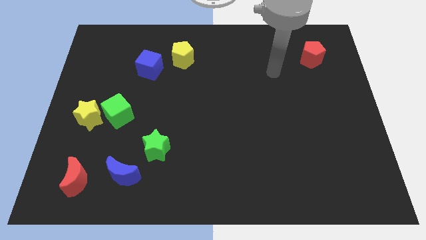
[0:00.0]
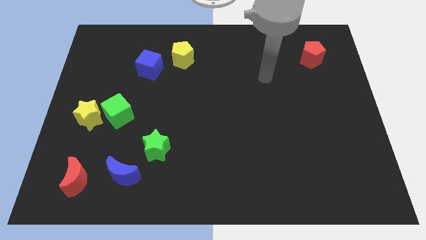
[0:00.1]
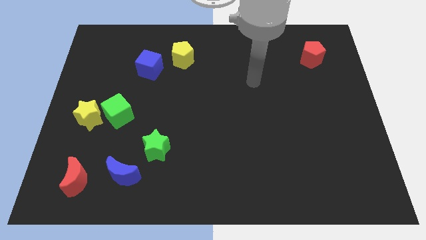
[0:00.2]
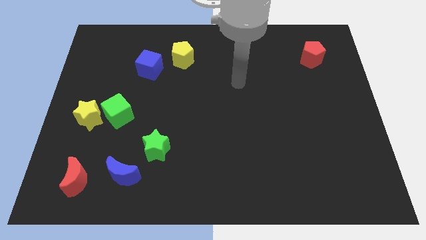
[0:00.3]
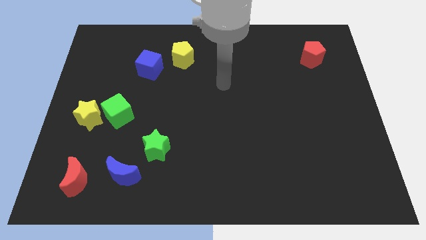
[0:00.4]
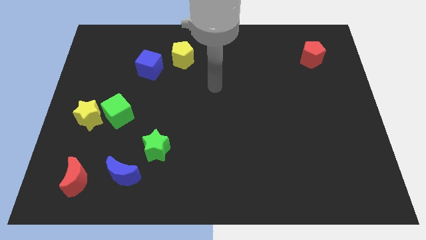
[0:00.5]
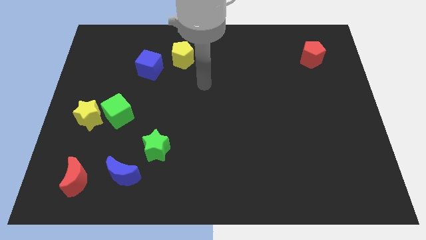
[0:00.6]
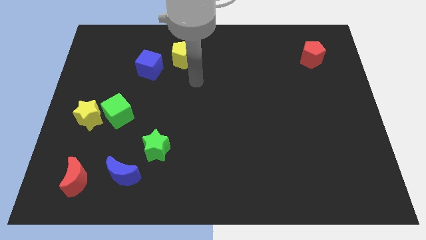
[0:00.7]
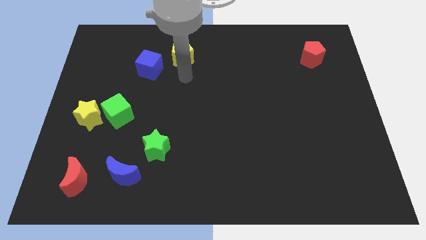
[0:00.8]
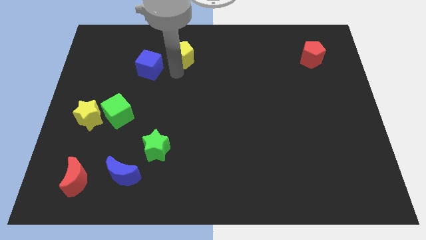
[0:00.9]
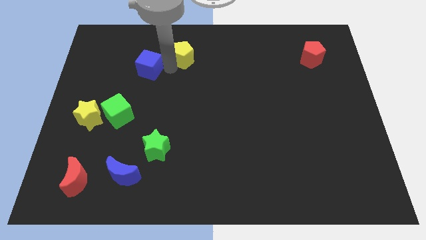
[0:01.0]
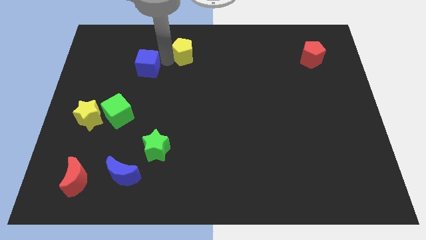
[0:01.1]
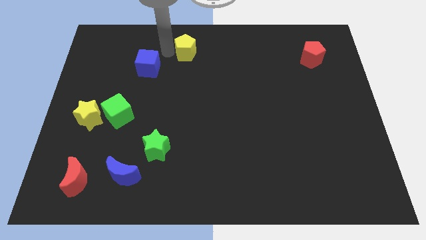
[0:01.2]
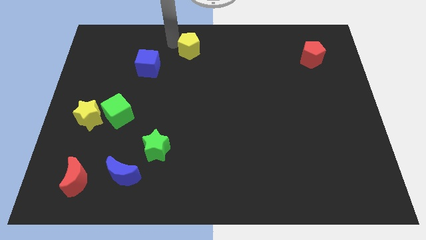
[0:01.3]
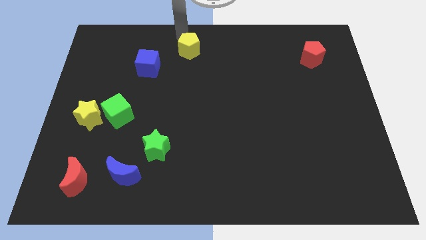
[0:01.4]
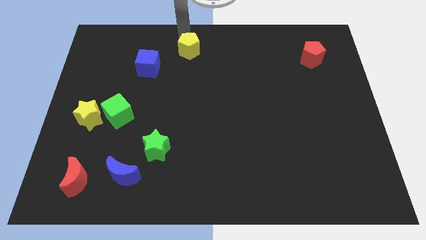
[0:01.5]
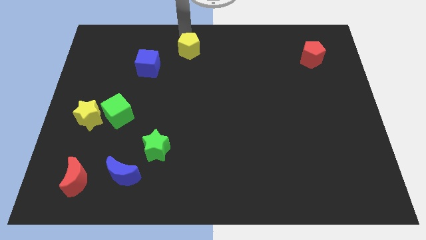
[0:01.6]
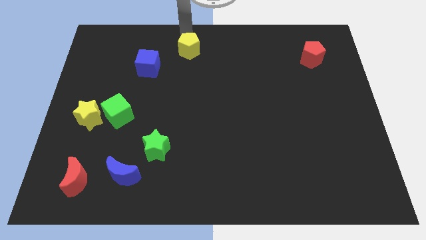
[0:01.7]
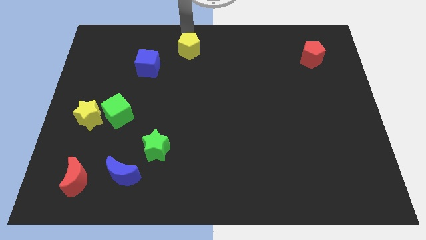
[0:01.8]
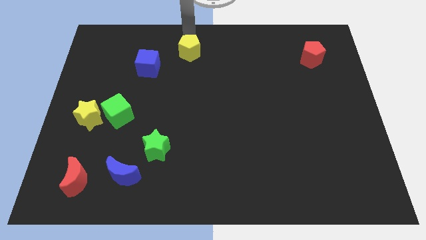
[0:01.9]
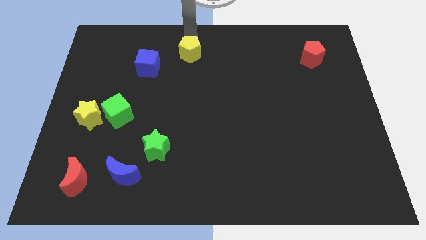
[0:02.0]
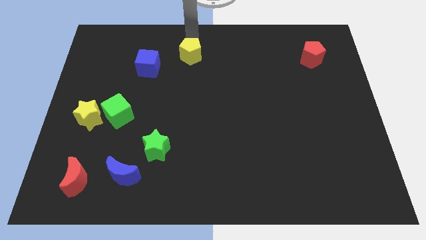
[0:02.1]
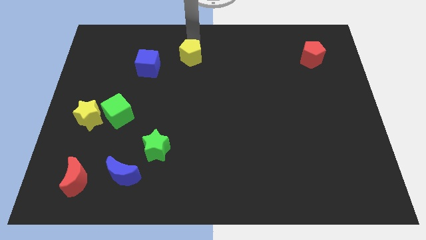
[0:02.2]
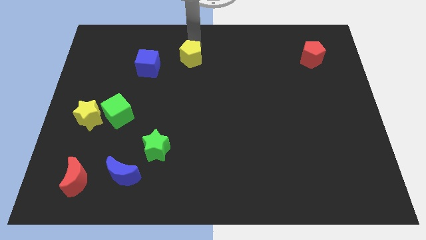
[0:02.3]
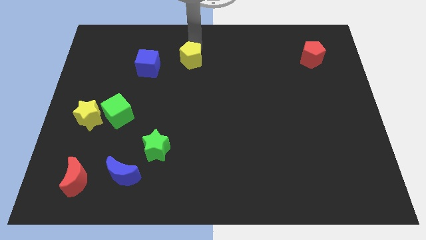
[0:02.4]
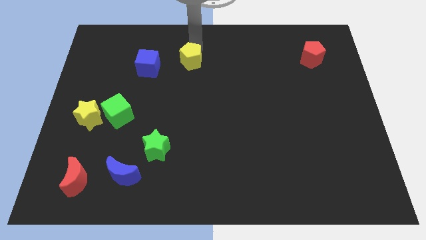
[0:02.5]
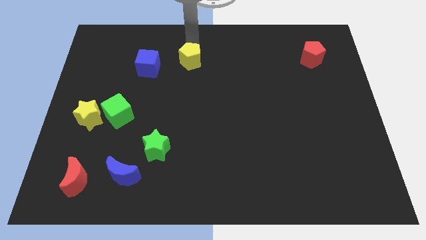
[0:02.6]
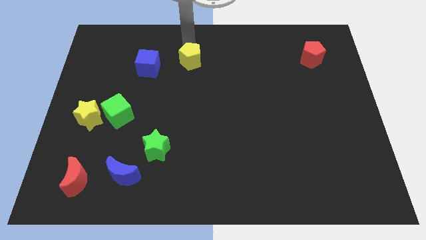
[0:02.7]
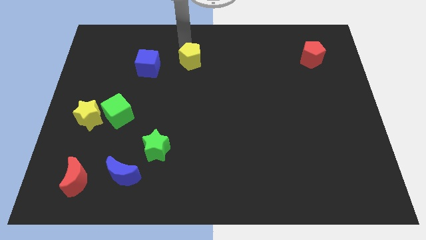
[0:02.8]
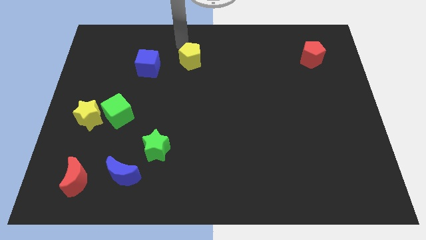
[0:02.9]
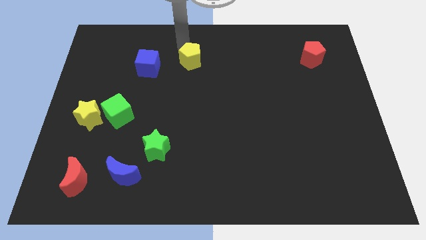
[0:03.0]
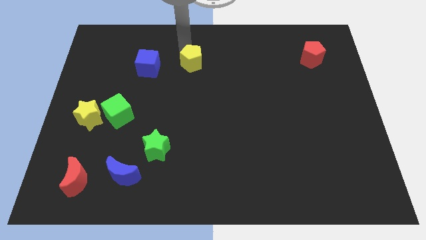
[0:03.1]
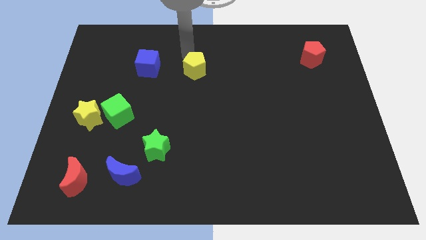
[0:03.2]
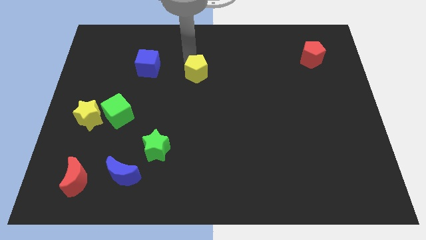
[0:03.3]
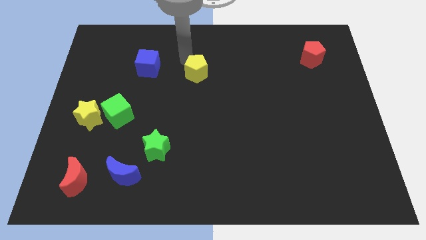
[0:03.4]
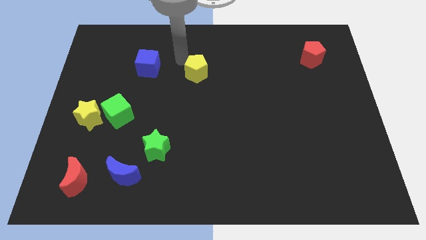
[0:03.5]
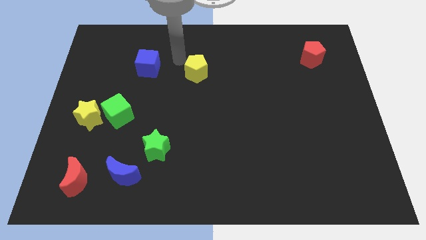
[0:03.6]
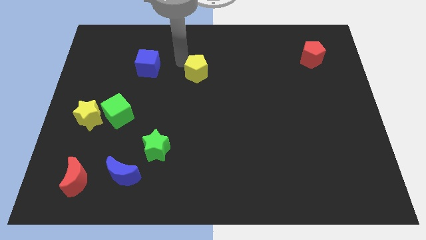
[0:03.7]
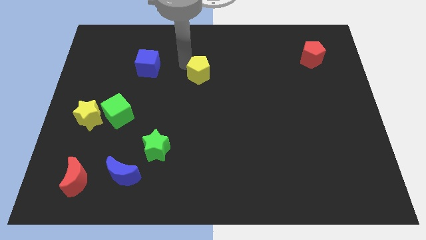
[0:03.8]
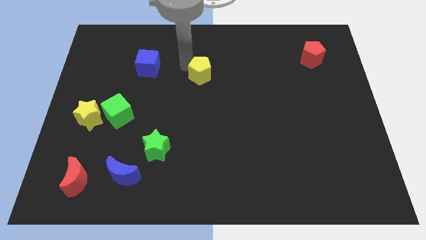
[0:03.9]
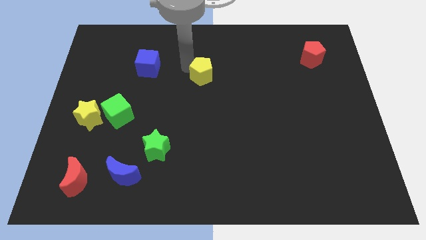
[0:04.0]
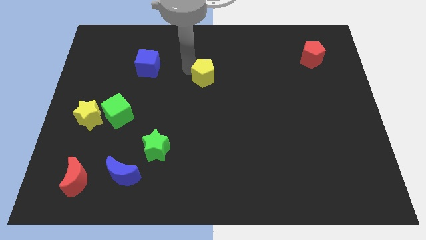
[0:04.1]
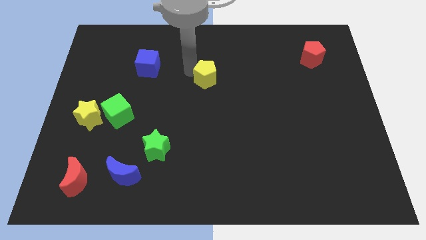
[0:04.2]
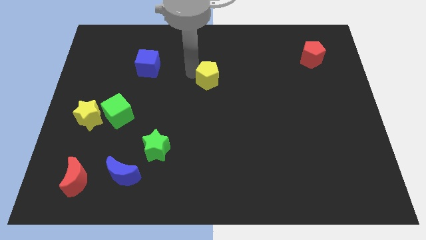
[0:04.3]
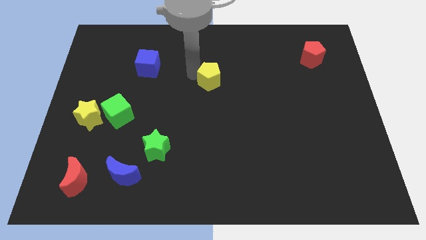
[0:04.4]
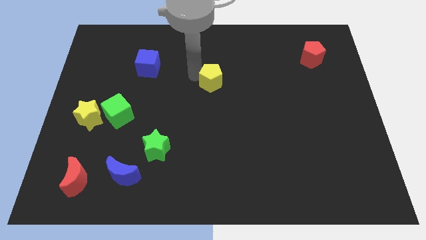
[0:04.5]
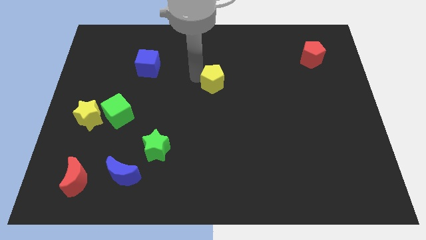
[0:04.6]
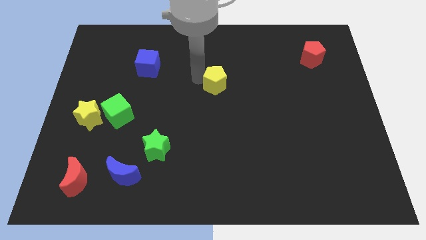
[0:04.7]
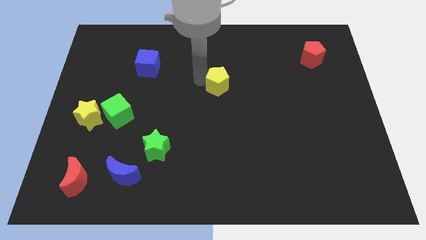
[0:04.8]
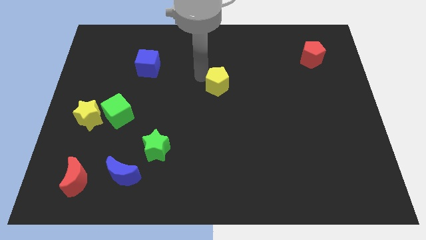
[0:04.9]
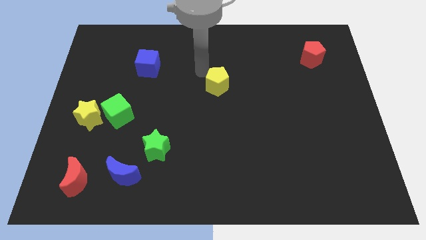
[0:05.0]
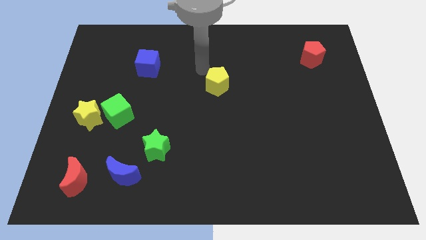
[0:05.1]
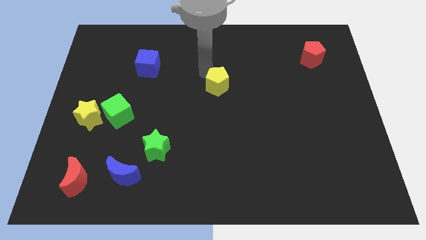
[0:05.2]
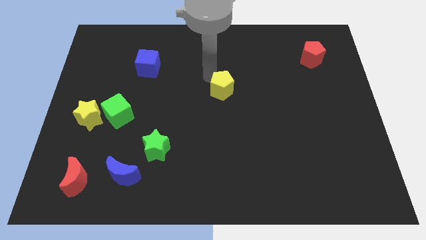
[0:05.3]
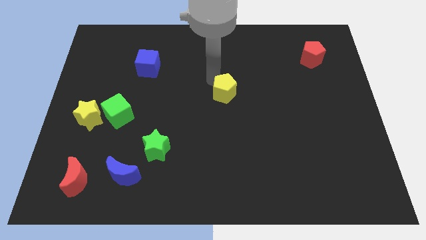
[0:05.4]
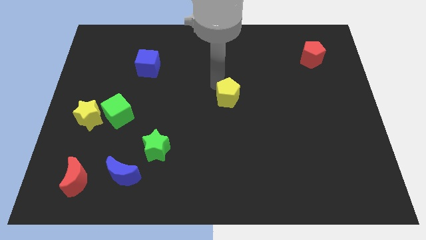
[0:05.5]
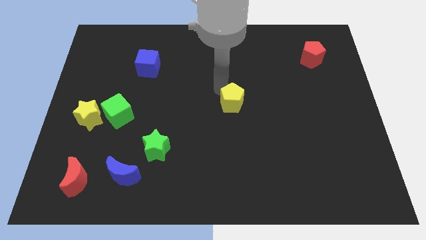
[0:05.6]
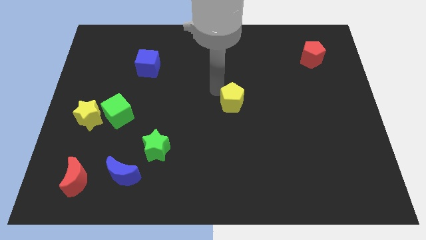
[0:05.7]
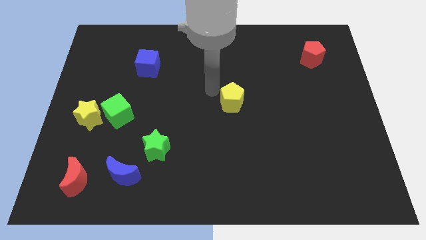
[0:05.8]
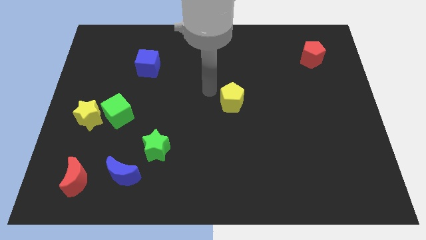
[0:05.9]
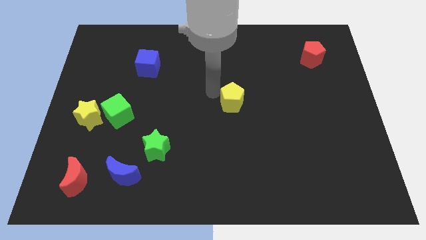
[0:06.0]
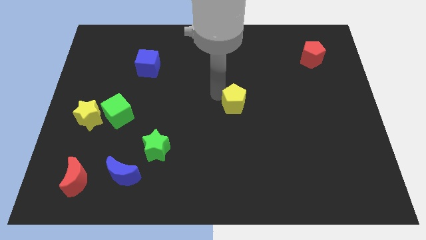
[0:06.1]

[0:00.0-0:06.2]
push the yellow pentagon downwards and to the right diagonally

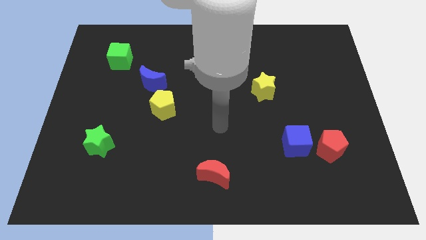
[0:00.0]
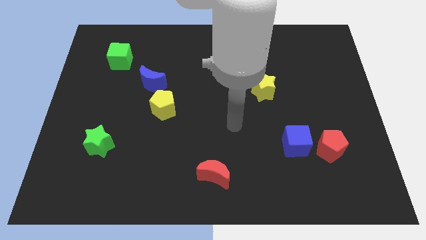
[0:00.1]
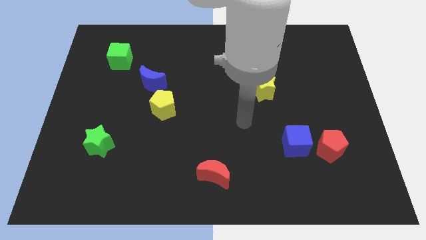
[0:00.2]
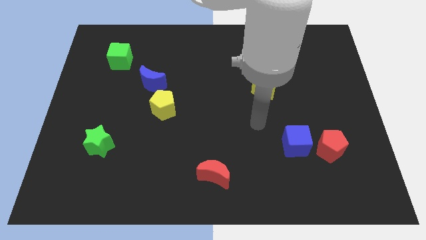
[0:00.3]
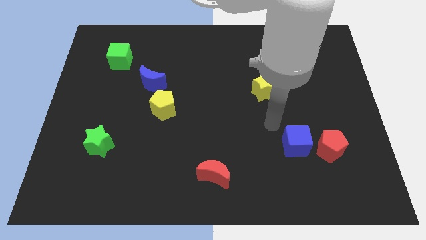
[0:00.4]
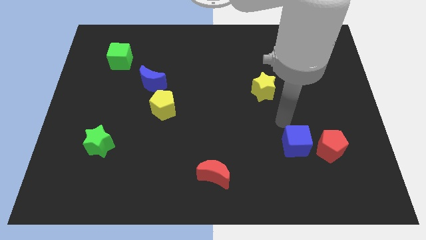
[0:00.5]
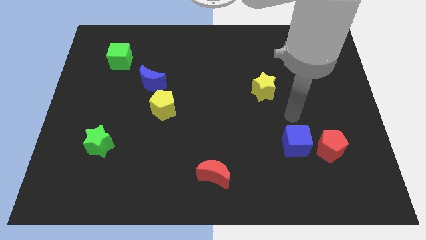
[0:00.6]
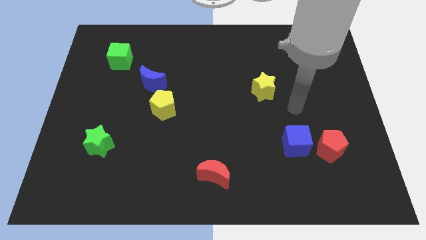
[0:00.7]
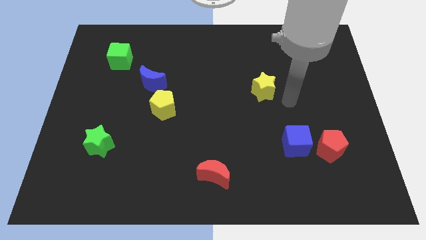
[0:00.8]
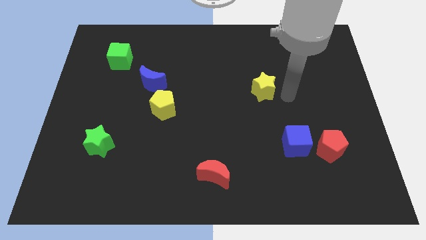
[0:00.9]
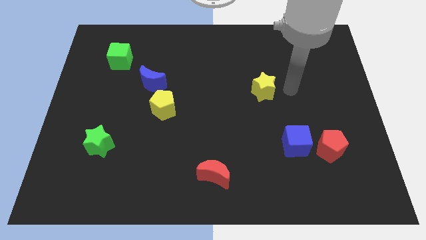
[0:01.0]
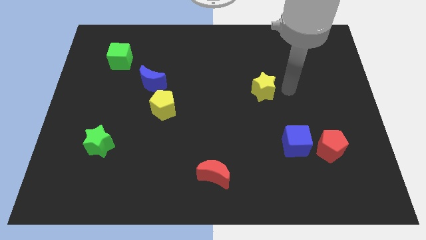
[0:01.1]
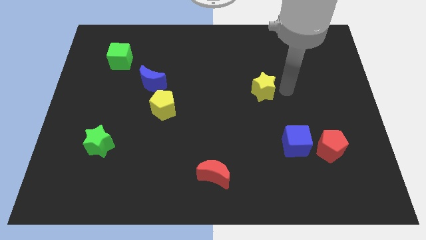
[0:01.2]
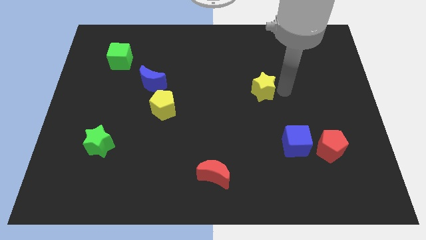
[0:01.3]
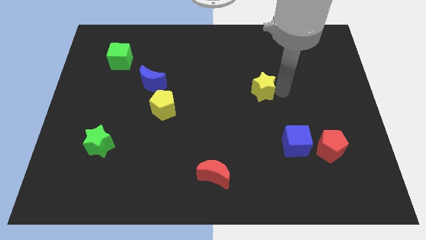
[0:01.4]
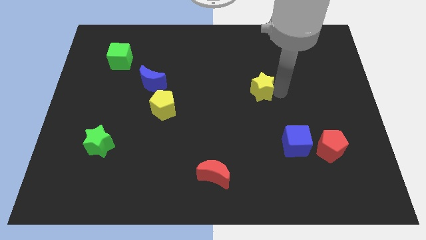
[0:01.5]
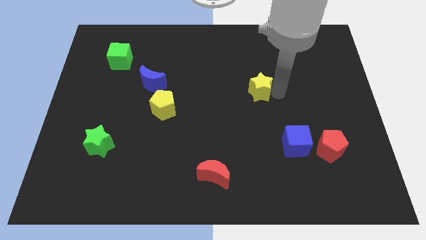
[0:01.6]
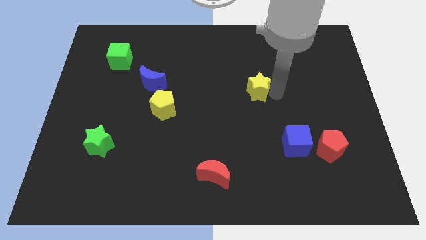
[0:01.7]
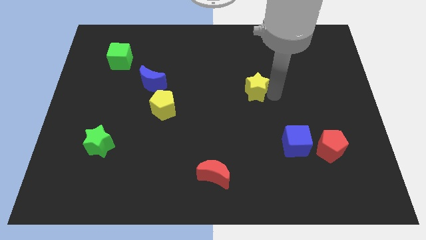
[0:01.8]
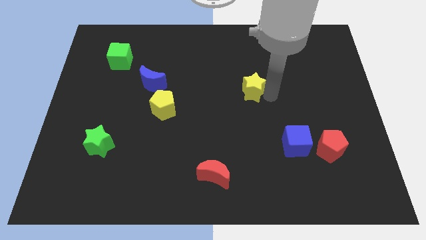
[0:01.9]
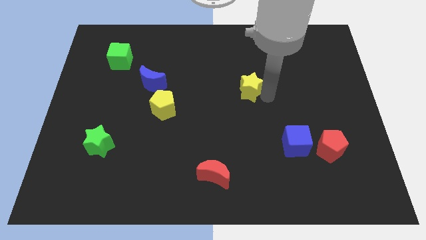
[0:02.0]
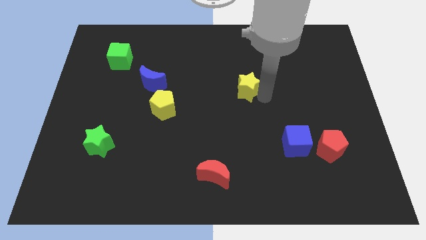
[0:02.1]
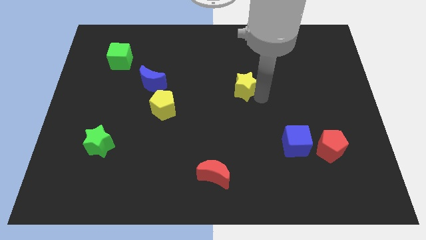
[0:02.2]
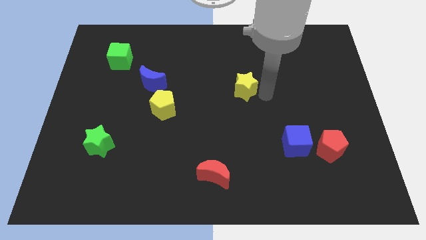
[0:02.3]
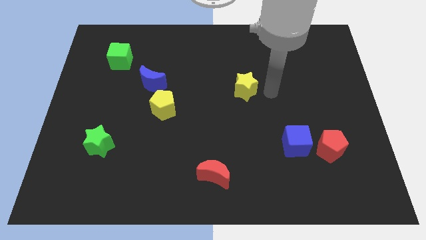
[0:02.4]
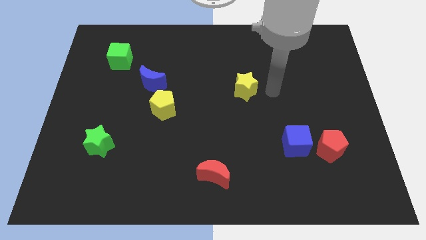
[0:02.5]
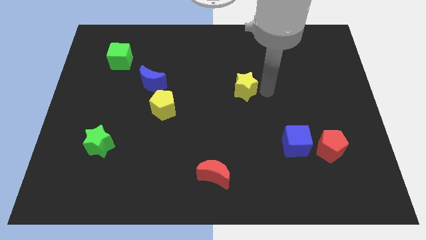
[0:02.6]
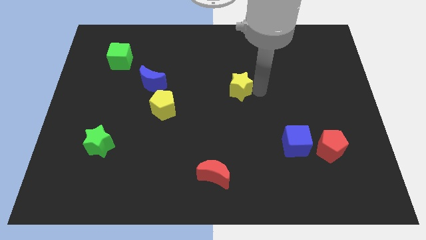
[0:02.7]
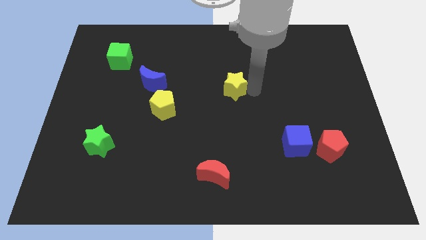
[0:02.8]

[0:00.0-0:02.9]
slightly slide the yellow star left
